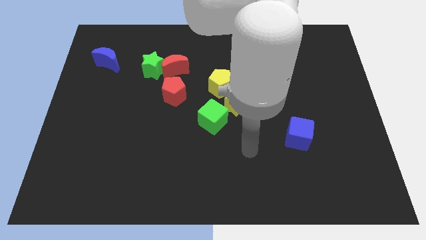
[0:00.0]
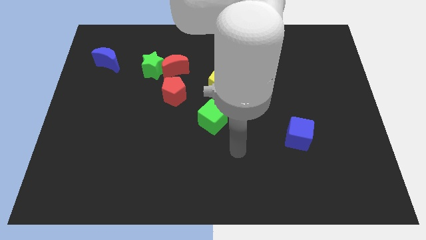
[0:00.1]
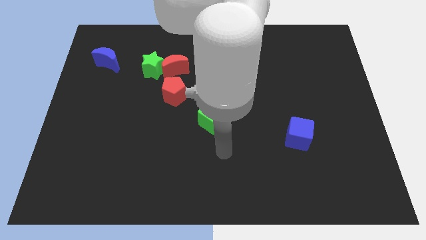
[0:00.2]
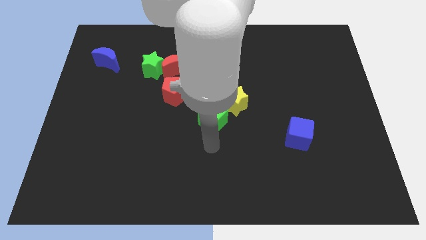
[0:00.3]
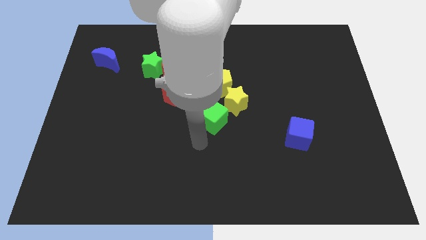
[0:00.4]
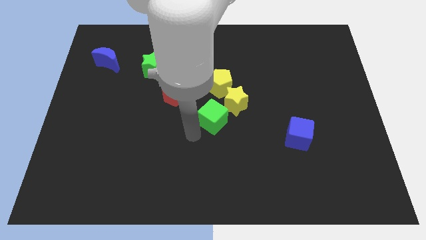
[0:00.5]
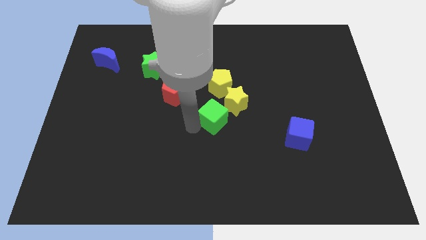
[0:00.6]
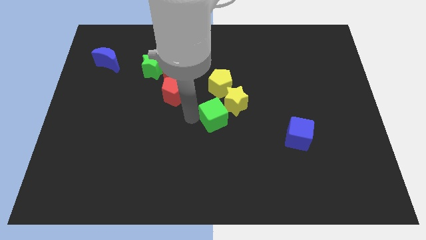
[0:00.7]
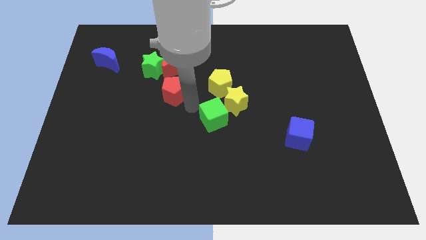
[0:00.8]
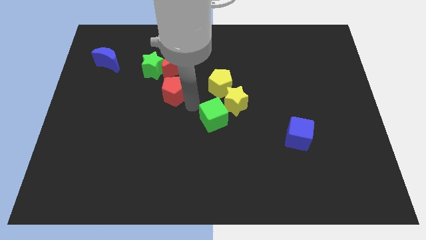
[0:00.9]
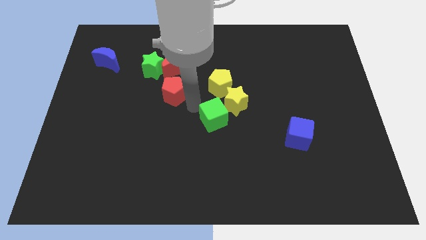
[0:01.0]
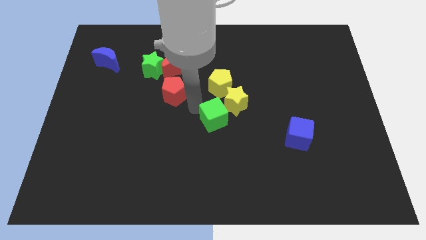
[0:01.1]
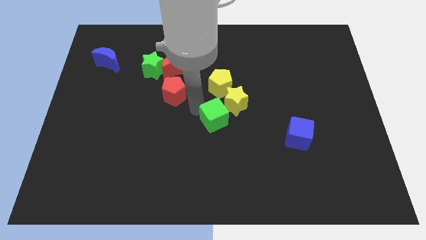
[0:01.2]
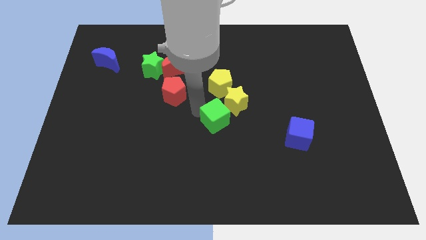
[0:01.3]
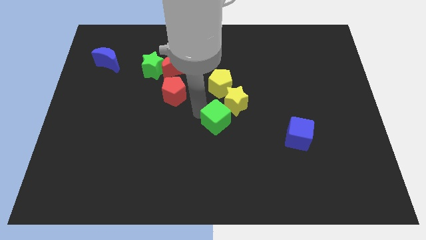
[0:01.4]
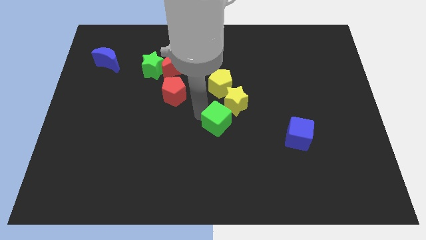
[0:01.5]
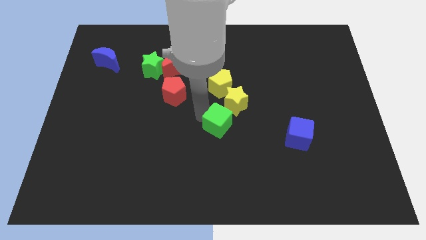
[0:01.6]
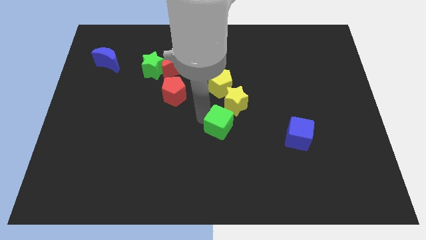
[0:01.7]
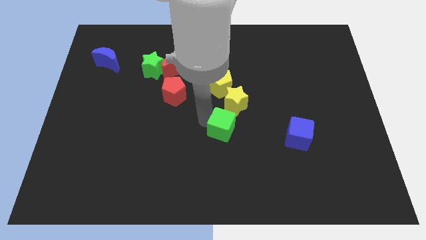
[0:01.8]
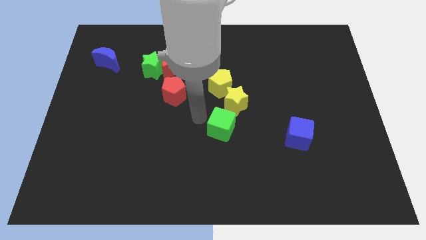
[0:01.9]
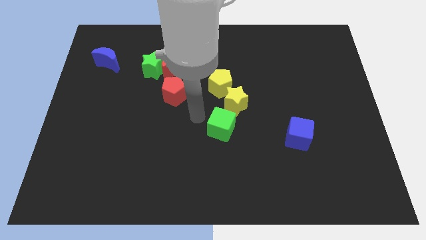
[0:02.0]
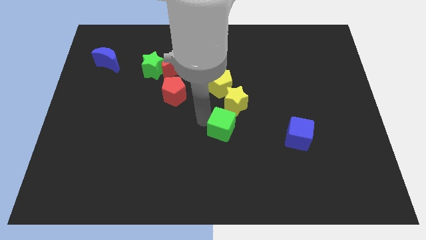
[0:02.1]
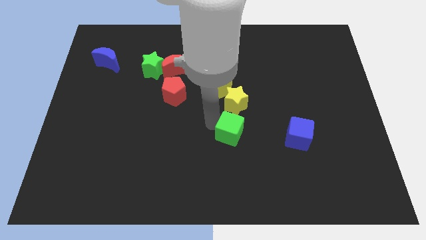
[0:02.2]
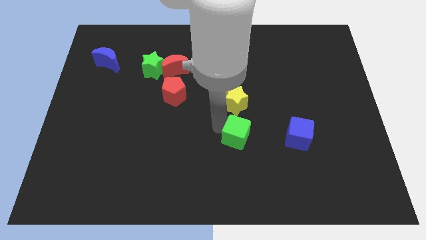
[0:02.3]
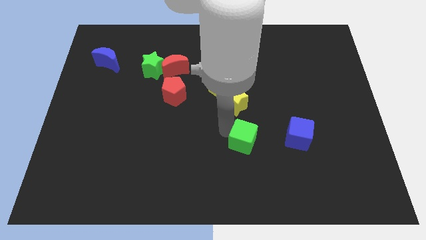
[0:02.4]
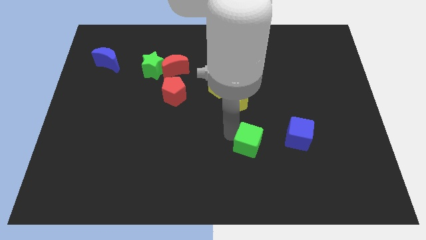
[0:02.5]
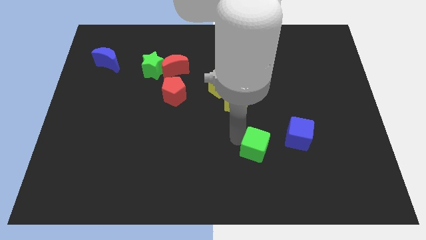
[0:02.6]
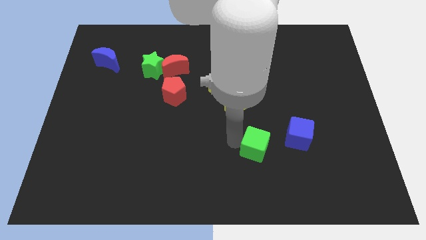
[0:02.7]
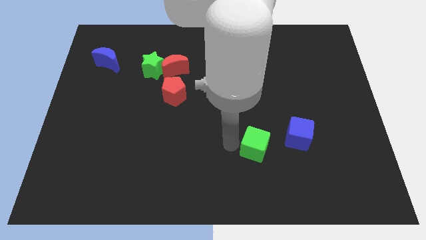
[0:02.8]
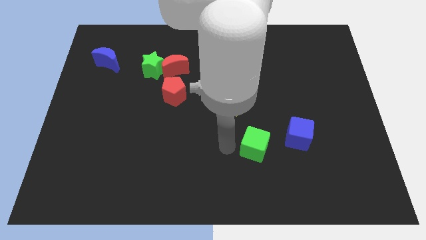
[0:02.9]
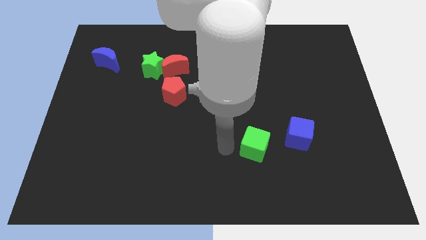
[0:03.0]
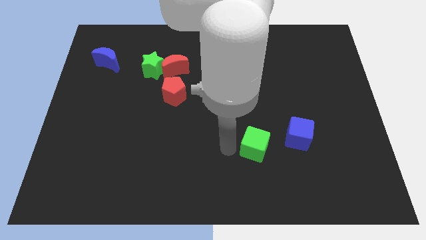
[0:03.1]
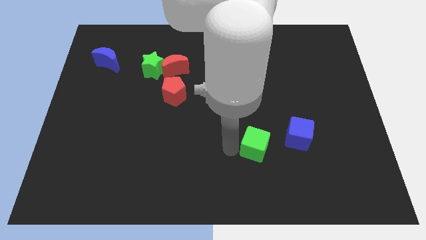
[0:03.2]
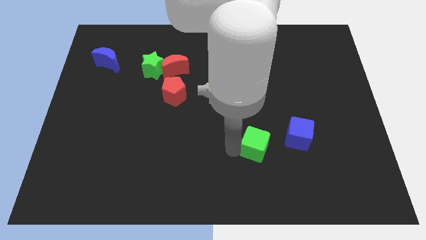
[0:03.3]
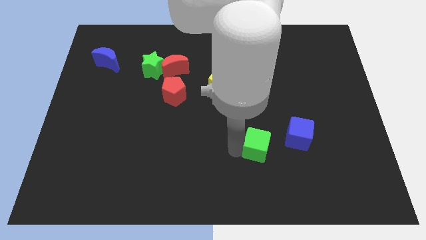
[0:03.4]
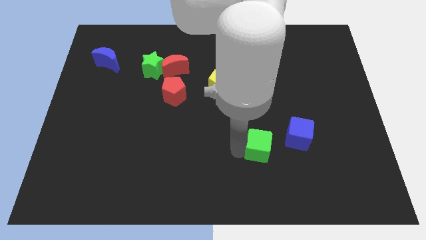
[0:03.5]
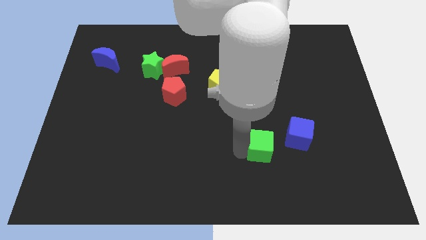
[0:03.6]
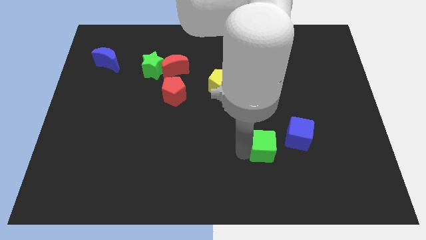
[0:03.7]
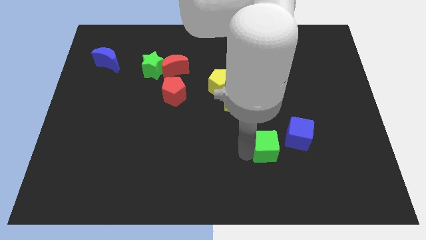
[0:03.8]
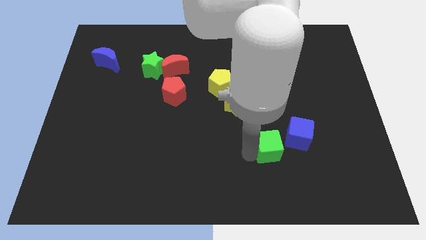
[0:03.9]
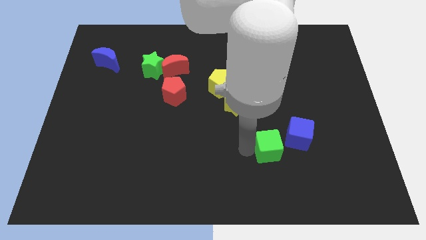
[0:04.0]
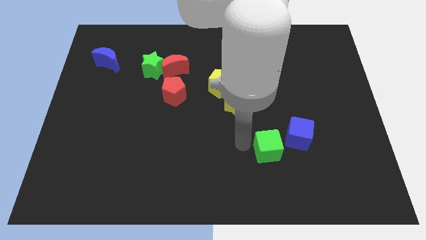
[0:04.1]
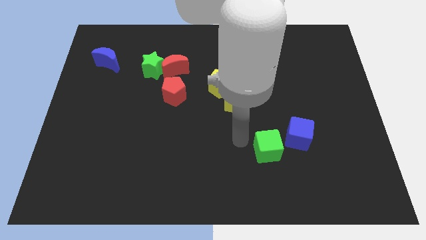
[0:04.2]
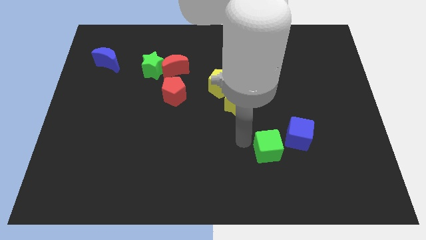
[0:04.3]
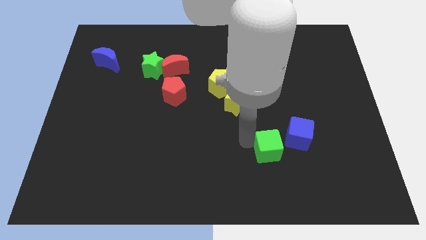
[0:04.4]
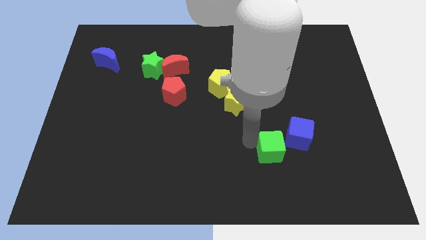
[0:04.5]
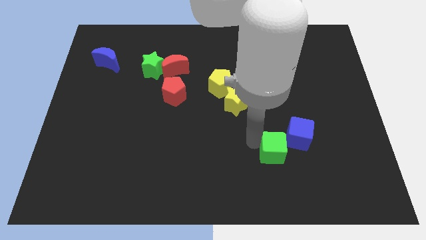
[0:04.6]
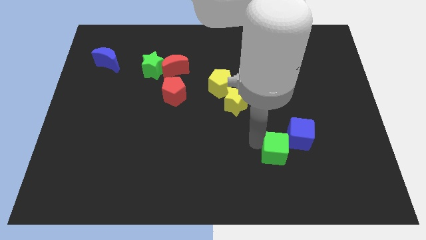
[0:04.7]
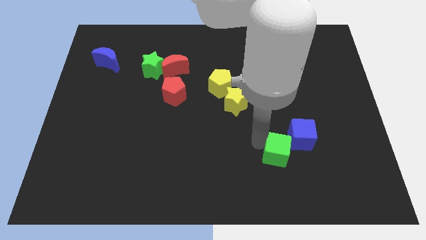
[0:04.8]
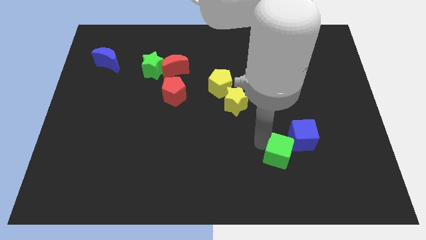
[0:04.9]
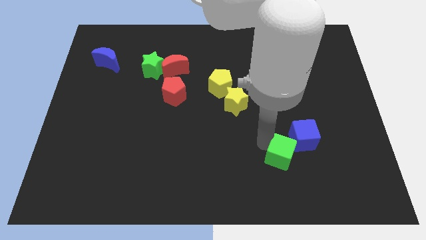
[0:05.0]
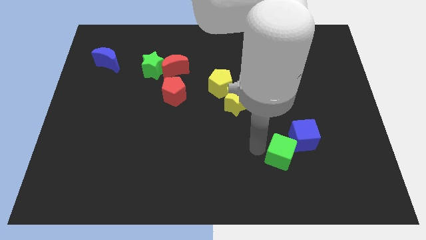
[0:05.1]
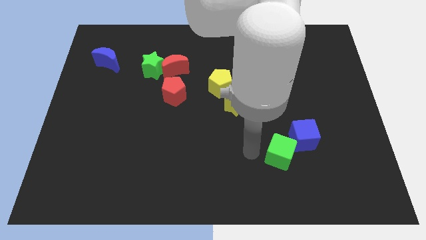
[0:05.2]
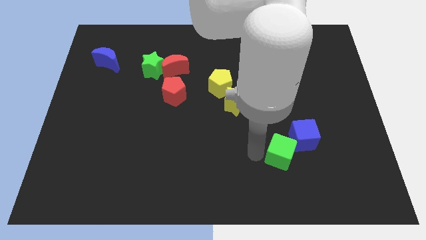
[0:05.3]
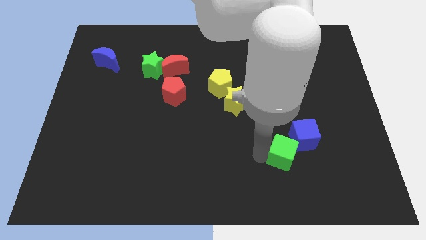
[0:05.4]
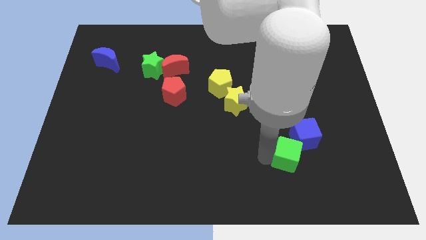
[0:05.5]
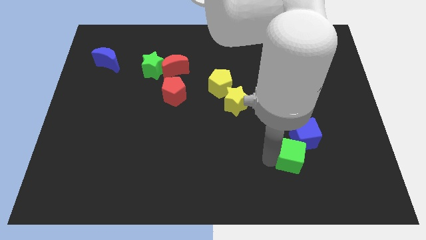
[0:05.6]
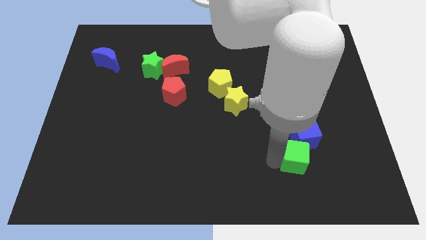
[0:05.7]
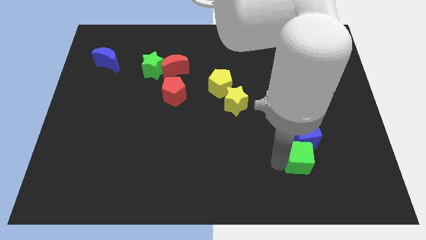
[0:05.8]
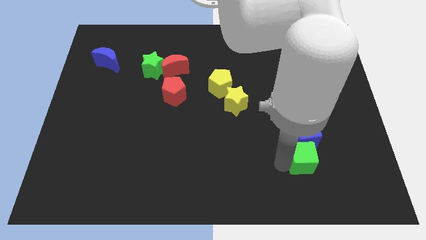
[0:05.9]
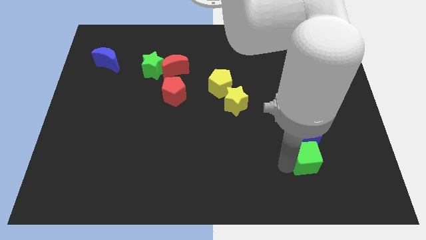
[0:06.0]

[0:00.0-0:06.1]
put the green cube diagonally down and to the right of the blue cube
